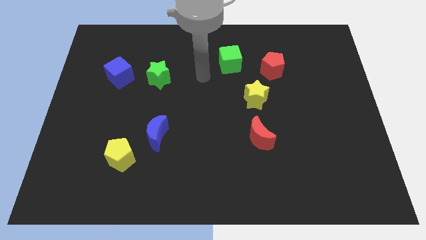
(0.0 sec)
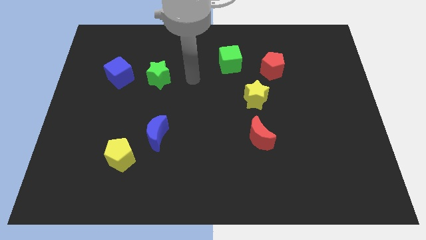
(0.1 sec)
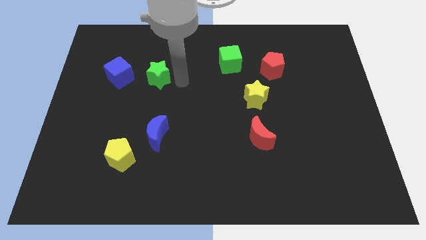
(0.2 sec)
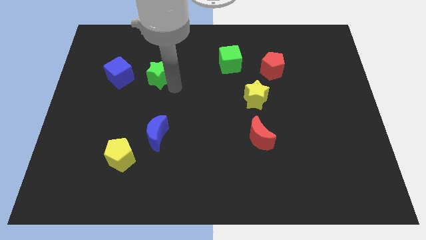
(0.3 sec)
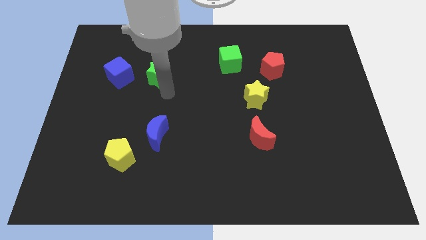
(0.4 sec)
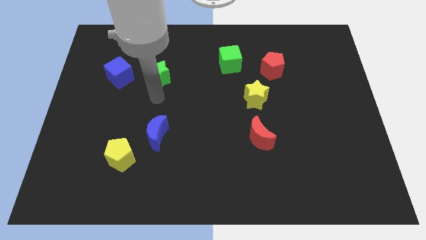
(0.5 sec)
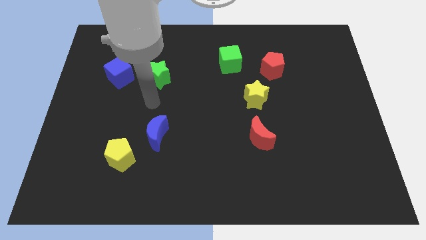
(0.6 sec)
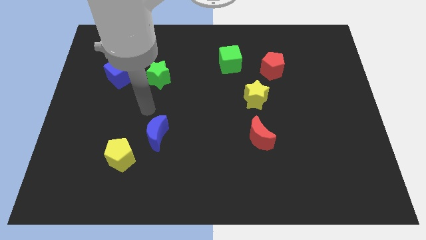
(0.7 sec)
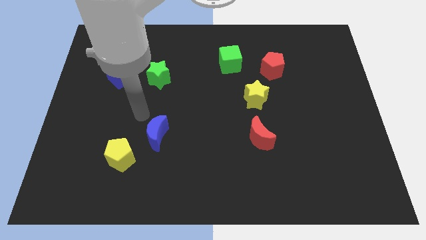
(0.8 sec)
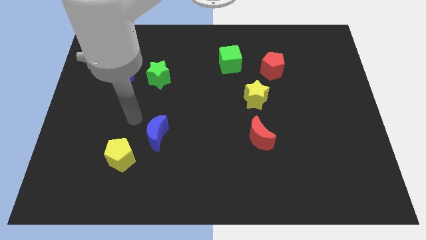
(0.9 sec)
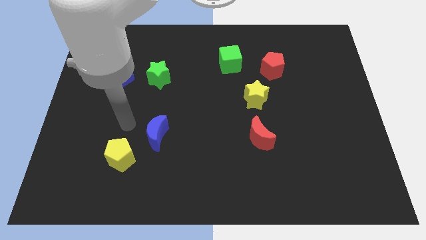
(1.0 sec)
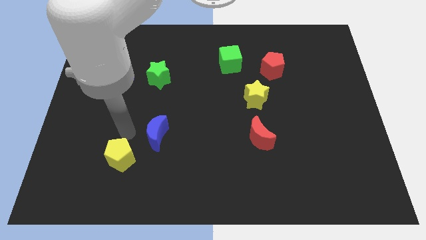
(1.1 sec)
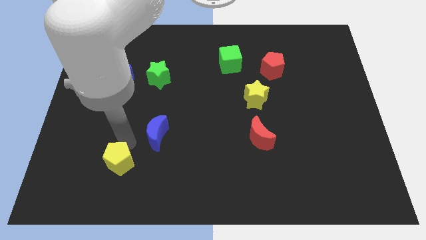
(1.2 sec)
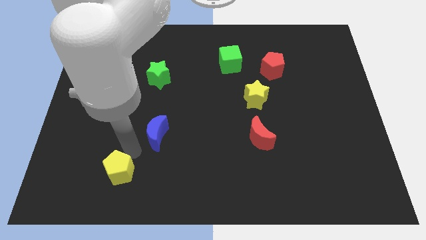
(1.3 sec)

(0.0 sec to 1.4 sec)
pull the blue moon apart from the yellow pentagon

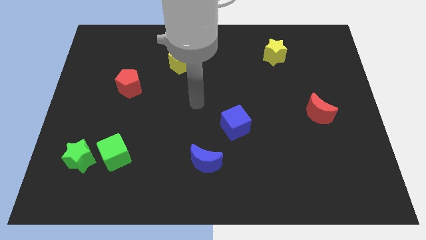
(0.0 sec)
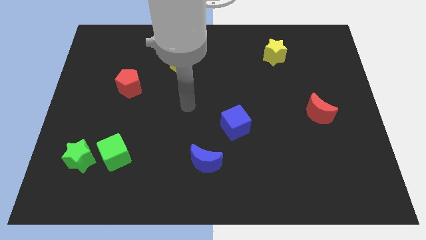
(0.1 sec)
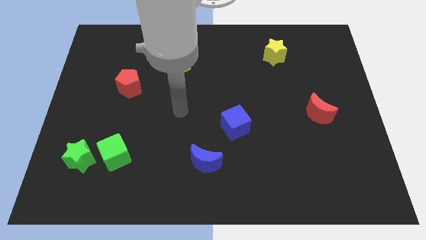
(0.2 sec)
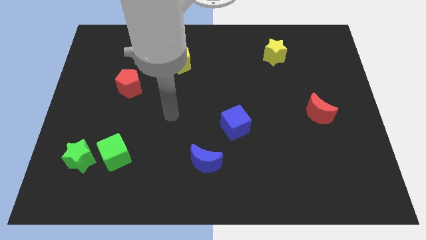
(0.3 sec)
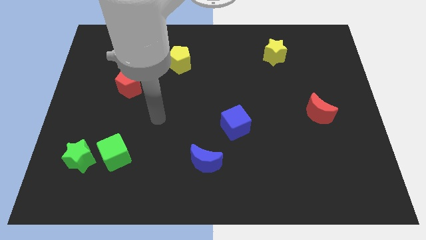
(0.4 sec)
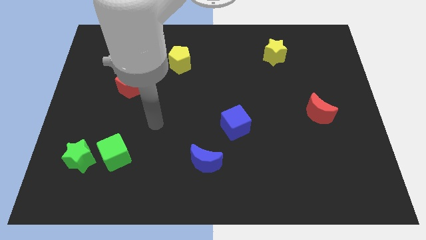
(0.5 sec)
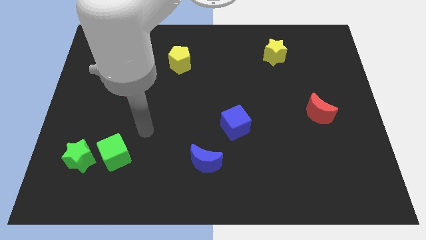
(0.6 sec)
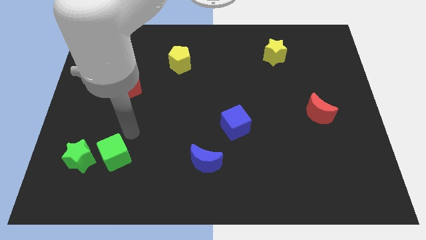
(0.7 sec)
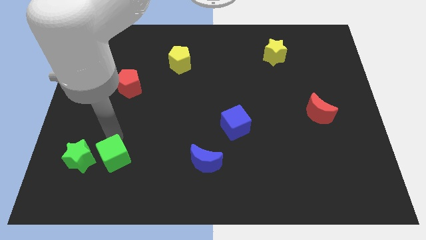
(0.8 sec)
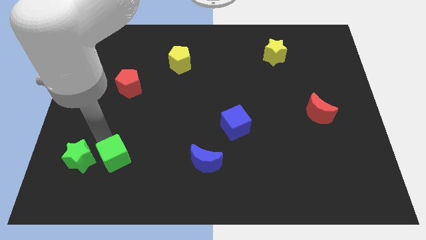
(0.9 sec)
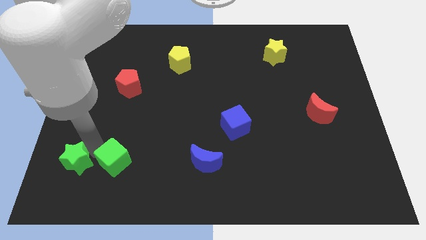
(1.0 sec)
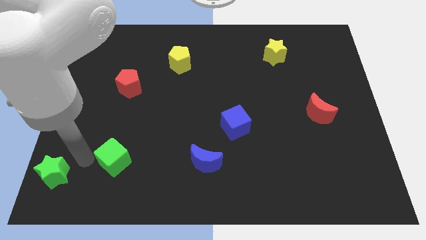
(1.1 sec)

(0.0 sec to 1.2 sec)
move the green cube away from the green star

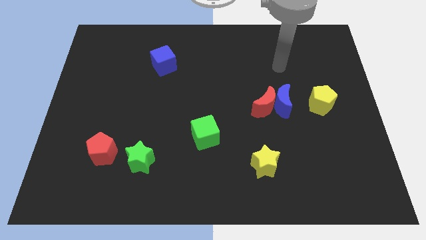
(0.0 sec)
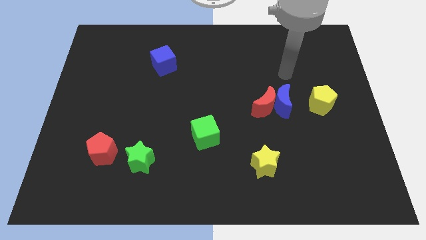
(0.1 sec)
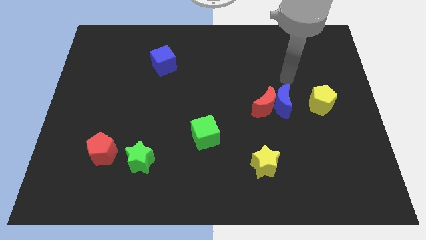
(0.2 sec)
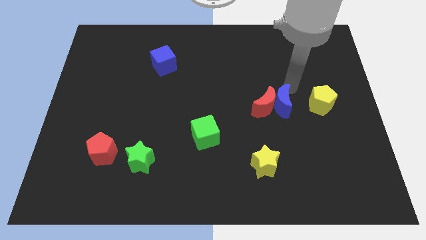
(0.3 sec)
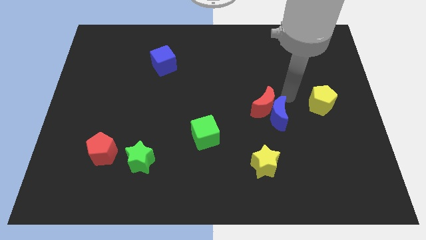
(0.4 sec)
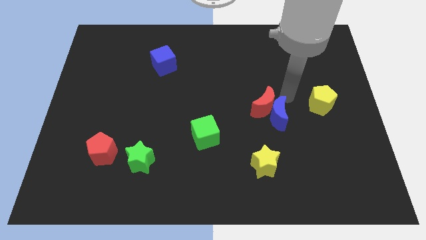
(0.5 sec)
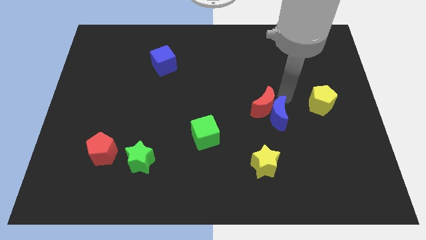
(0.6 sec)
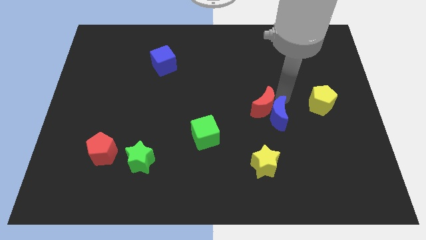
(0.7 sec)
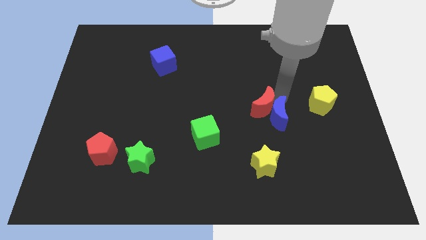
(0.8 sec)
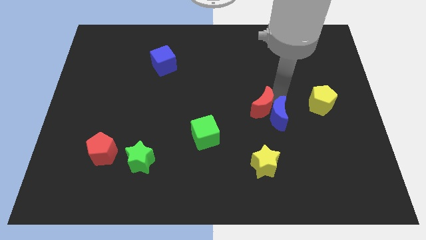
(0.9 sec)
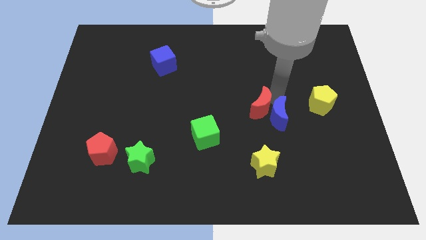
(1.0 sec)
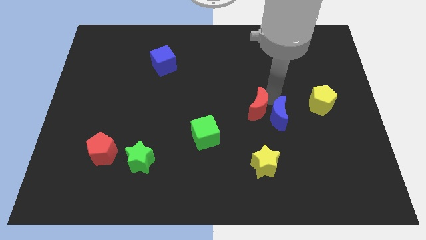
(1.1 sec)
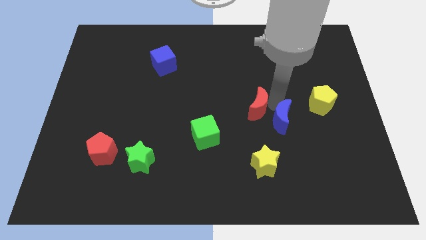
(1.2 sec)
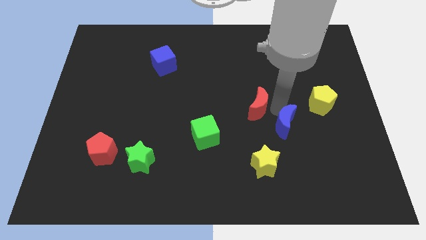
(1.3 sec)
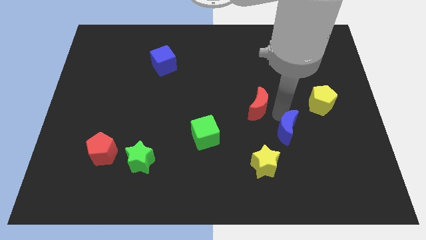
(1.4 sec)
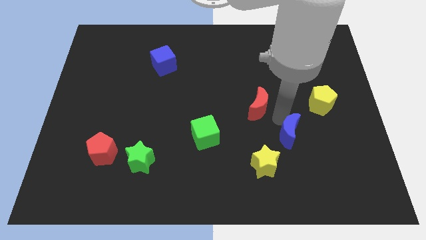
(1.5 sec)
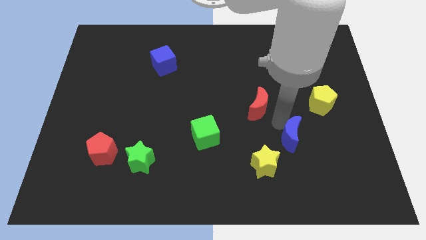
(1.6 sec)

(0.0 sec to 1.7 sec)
pull the red moon apart from the blue moon

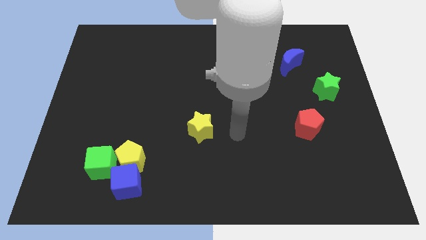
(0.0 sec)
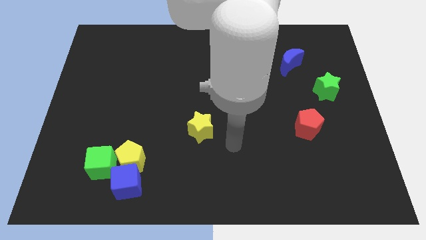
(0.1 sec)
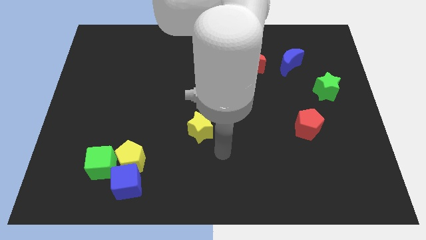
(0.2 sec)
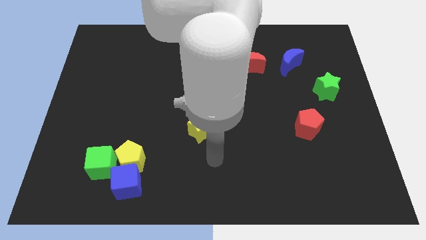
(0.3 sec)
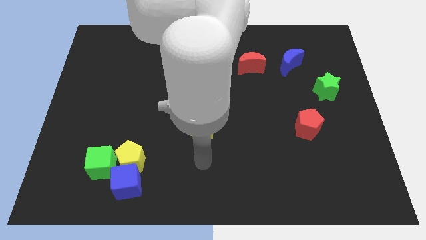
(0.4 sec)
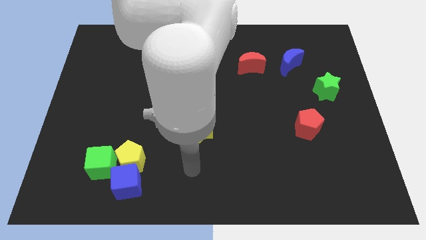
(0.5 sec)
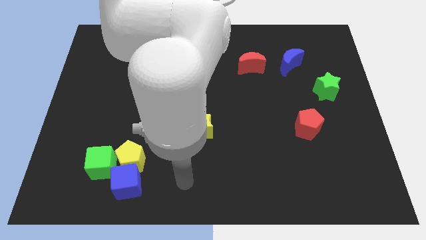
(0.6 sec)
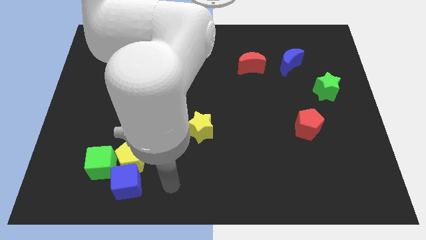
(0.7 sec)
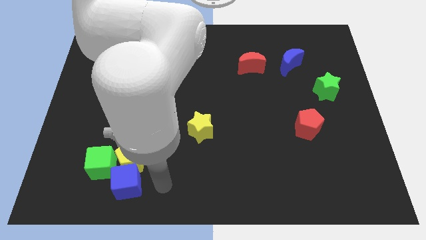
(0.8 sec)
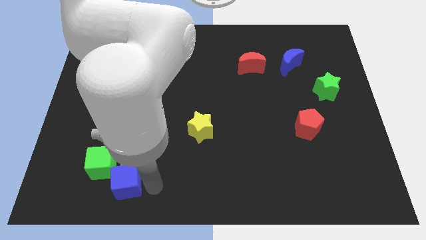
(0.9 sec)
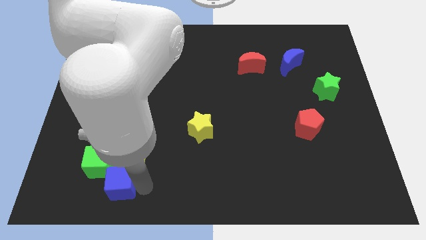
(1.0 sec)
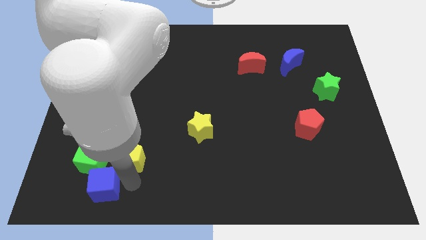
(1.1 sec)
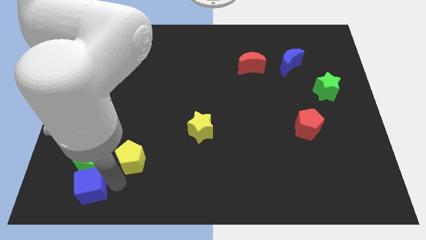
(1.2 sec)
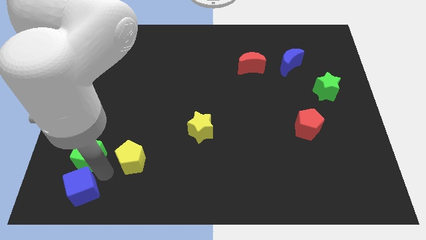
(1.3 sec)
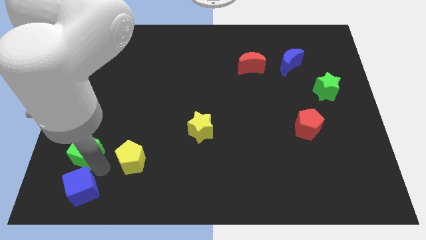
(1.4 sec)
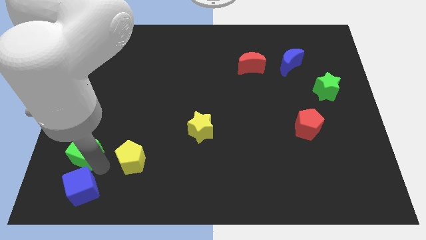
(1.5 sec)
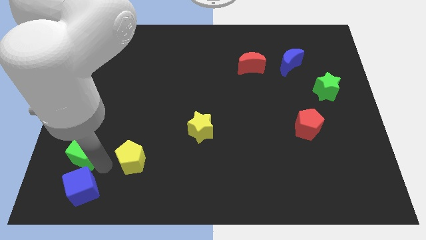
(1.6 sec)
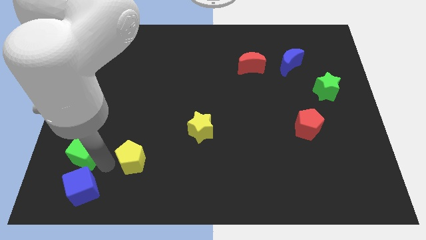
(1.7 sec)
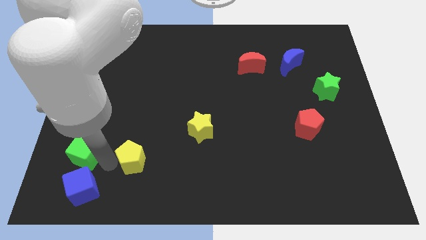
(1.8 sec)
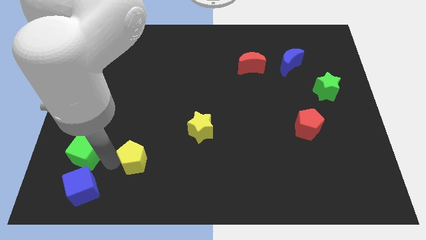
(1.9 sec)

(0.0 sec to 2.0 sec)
pull the yellow pentagon apart from the blue cube and green cube

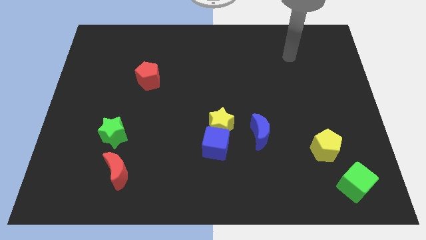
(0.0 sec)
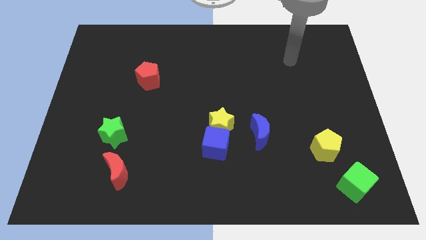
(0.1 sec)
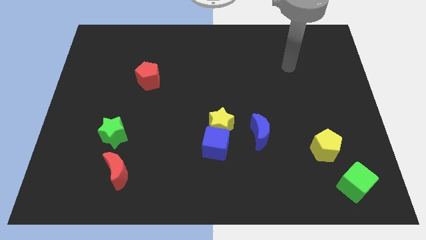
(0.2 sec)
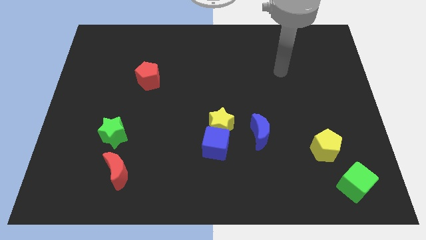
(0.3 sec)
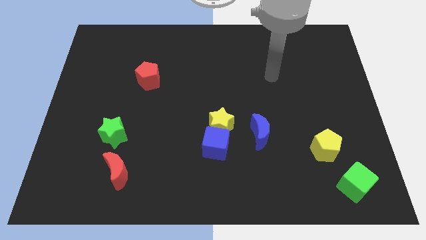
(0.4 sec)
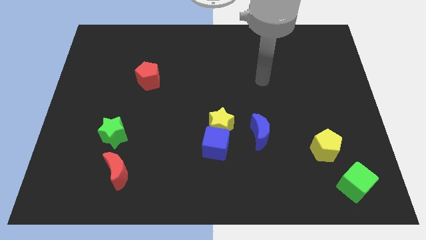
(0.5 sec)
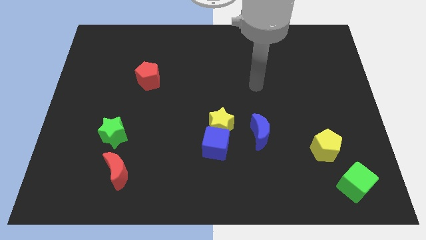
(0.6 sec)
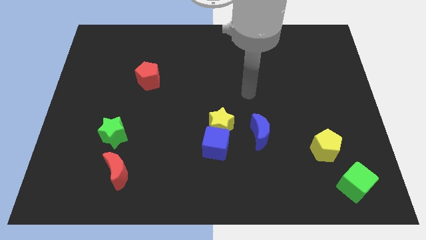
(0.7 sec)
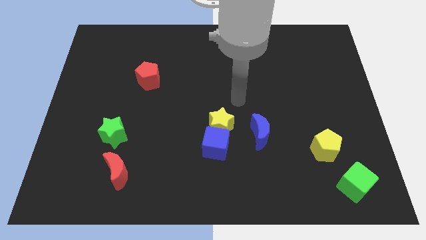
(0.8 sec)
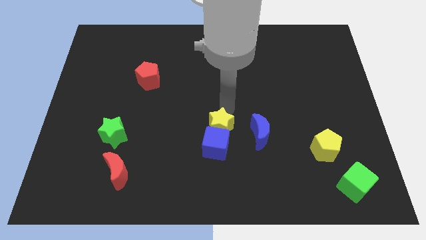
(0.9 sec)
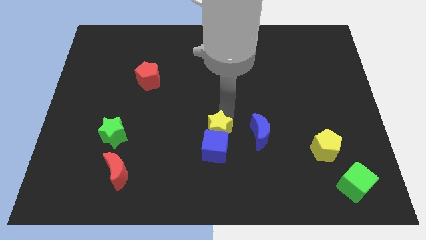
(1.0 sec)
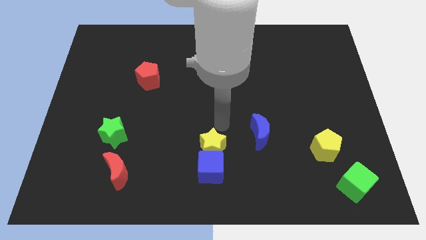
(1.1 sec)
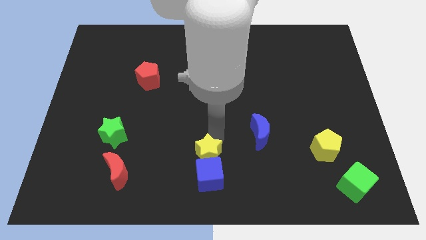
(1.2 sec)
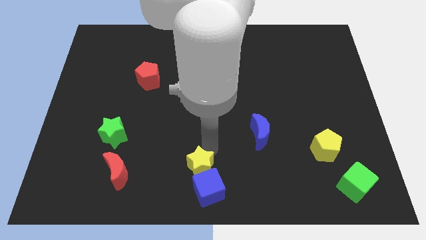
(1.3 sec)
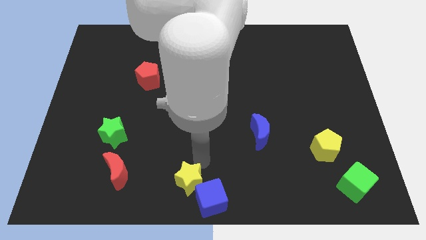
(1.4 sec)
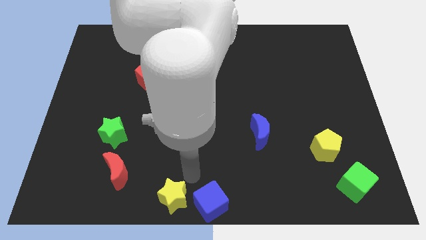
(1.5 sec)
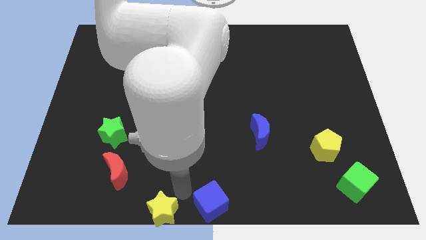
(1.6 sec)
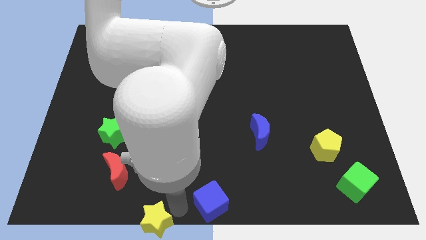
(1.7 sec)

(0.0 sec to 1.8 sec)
pull the blue cube apart from the yellow star

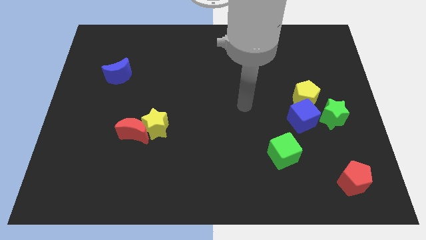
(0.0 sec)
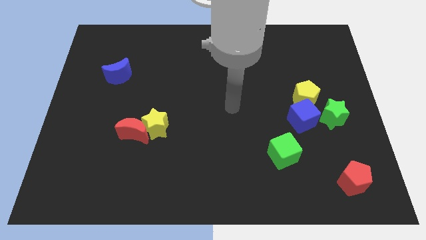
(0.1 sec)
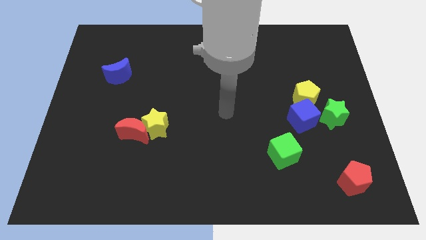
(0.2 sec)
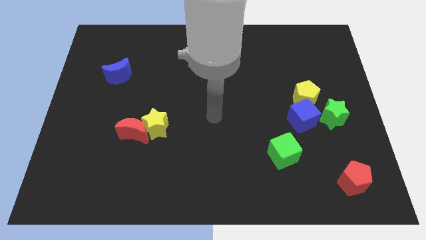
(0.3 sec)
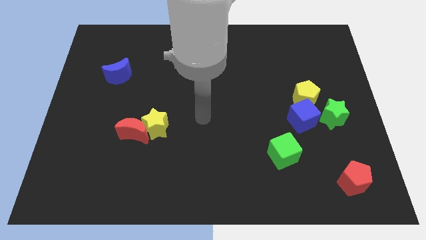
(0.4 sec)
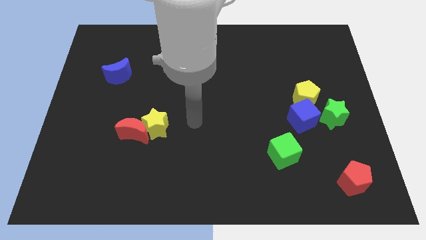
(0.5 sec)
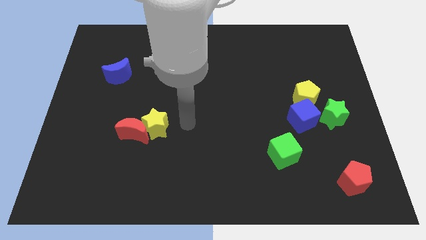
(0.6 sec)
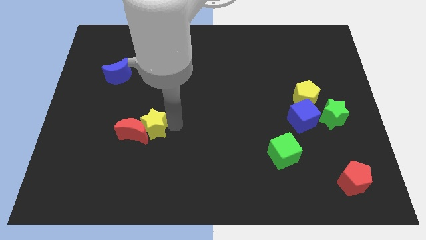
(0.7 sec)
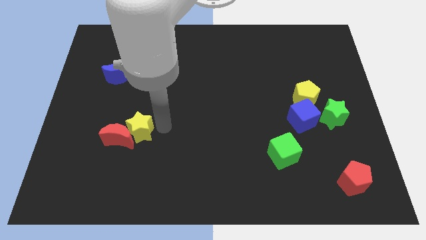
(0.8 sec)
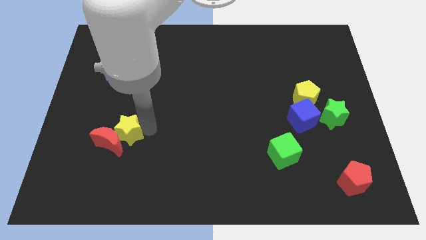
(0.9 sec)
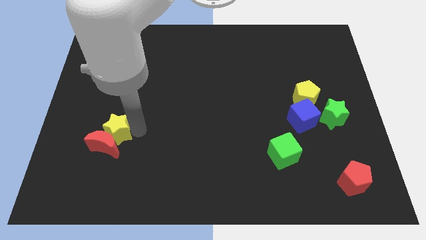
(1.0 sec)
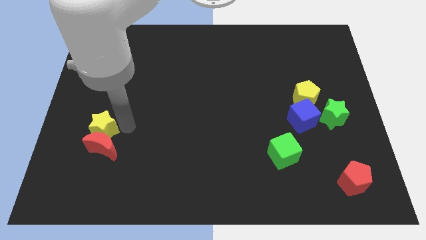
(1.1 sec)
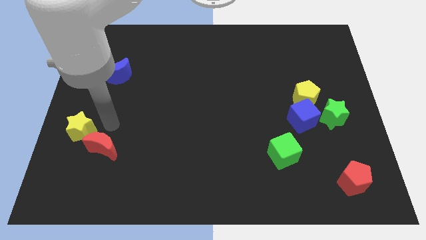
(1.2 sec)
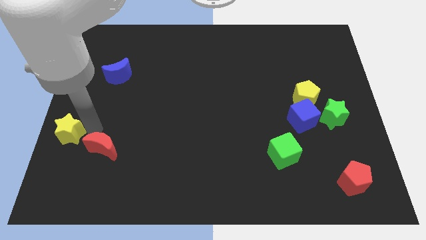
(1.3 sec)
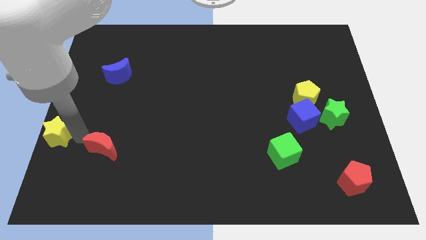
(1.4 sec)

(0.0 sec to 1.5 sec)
pull the red moon apart from the yellow star
